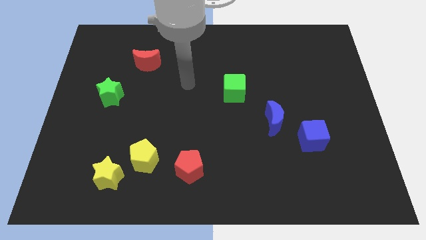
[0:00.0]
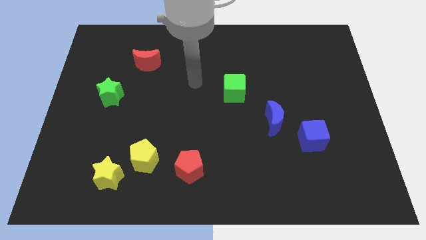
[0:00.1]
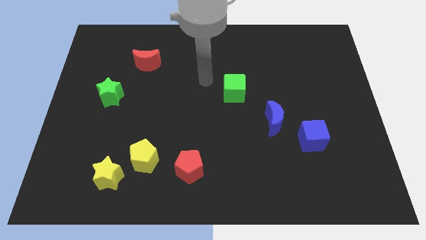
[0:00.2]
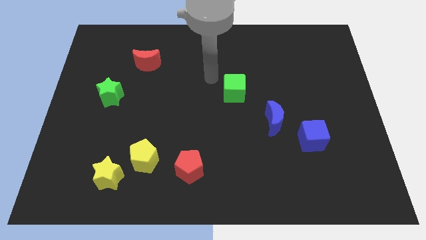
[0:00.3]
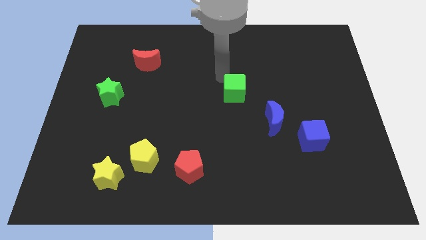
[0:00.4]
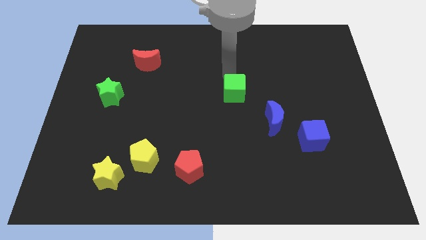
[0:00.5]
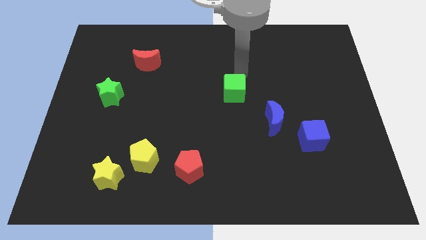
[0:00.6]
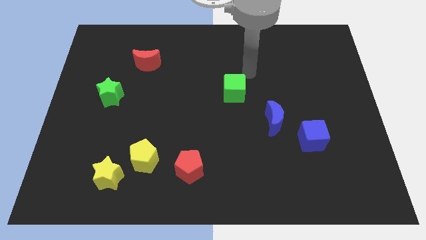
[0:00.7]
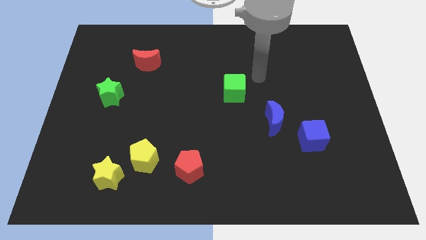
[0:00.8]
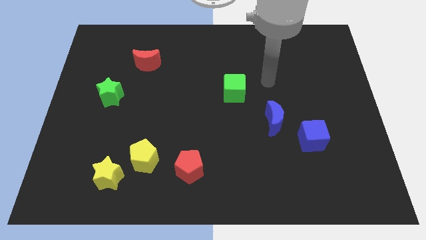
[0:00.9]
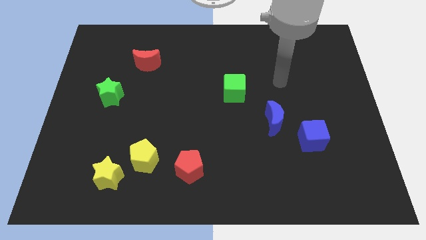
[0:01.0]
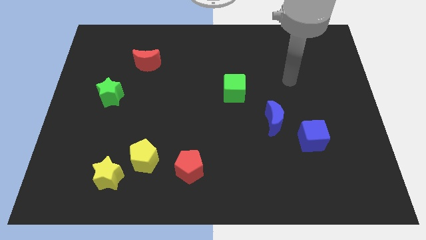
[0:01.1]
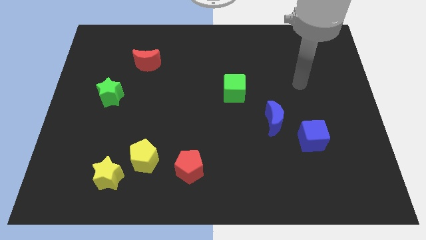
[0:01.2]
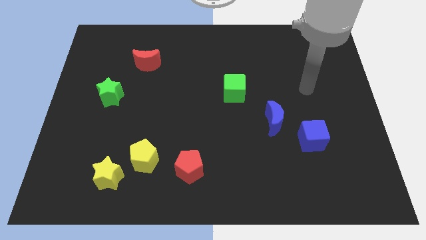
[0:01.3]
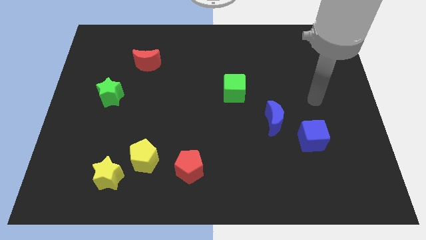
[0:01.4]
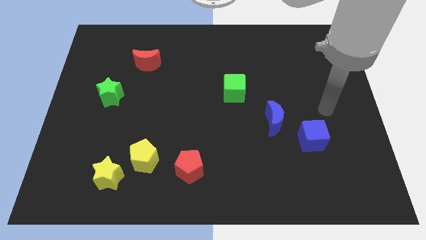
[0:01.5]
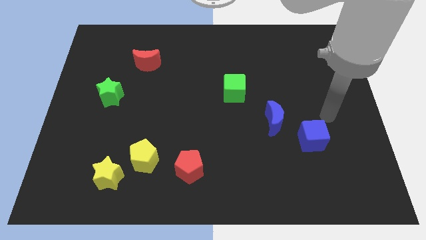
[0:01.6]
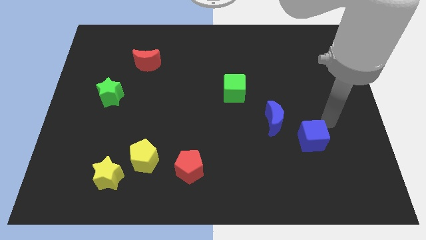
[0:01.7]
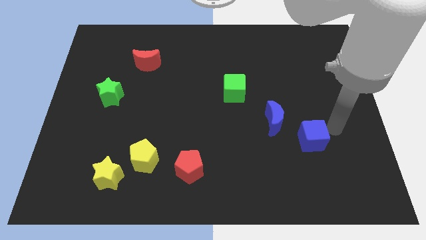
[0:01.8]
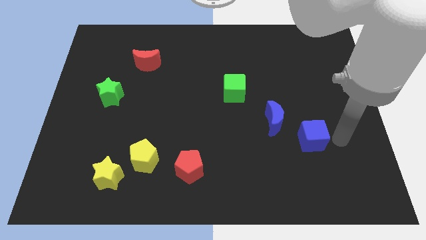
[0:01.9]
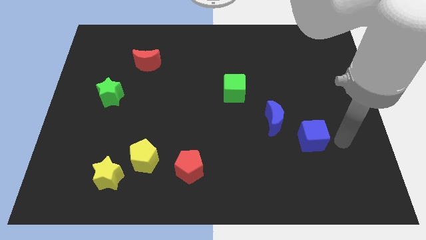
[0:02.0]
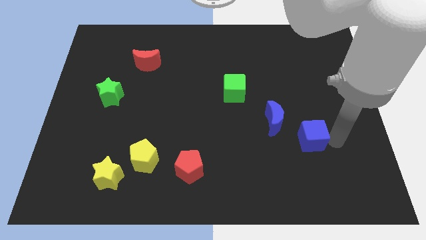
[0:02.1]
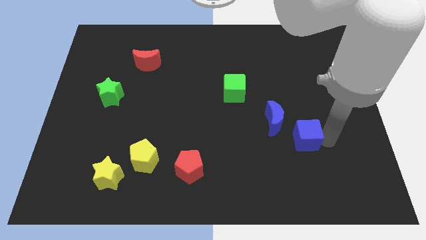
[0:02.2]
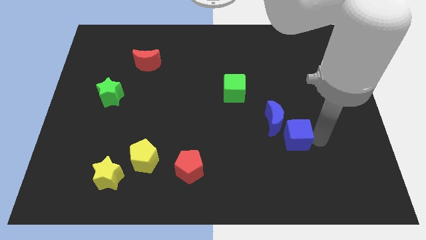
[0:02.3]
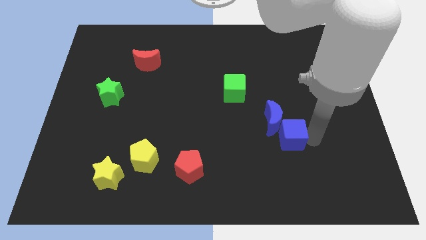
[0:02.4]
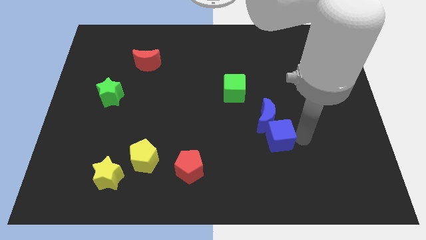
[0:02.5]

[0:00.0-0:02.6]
push the blue cube a little to the left

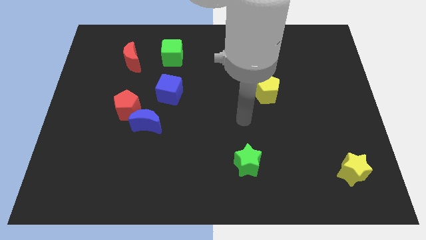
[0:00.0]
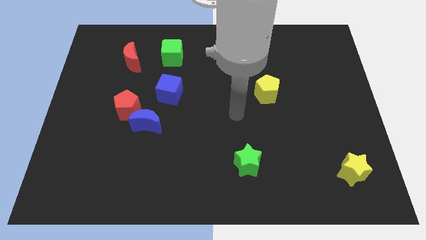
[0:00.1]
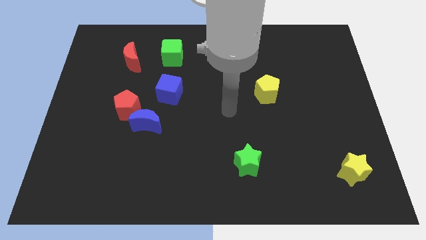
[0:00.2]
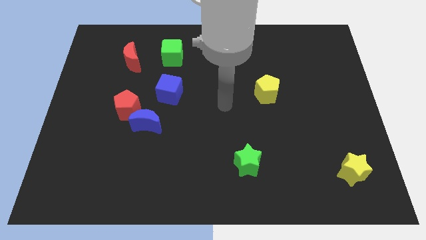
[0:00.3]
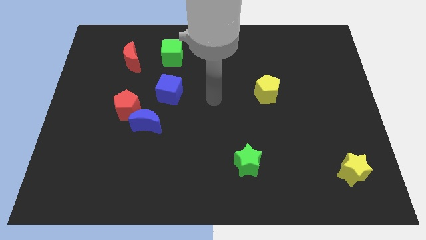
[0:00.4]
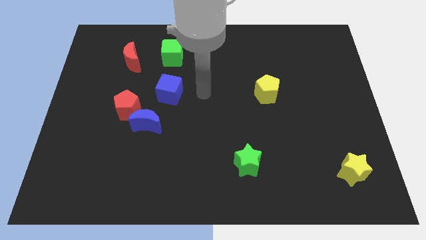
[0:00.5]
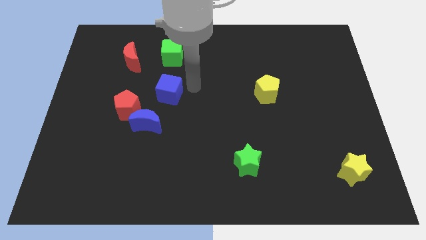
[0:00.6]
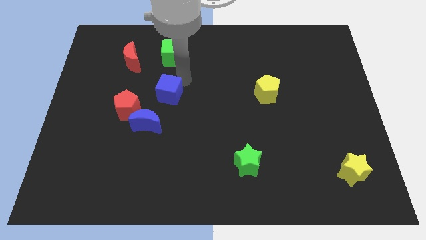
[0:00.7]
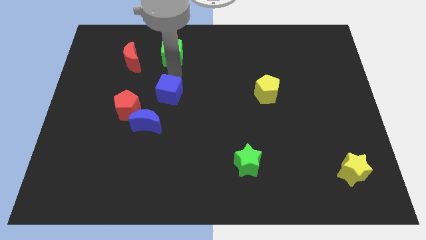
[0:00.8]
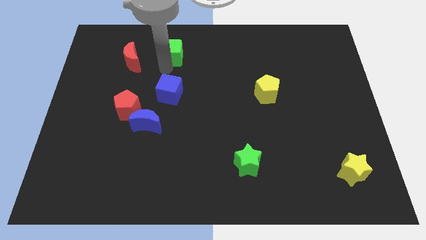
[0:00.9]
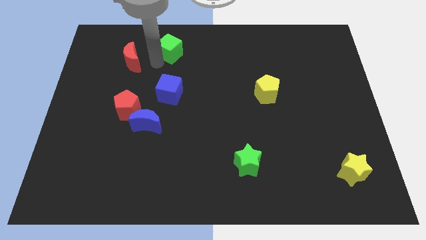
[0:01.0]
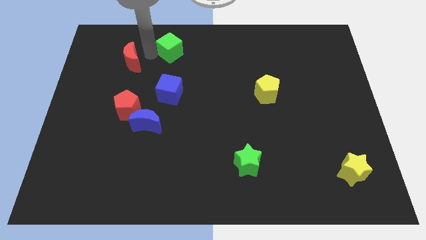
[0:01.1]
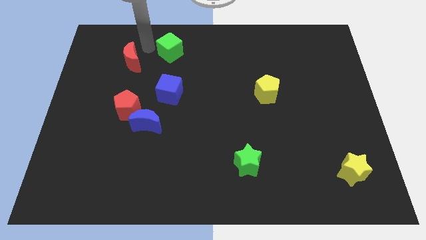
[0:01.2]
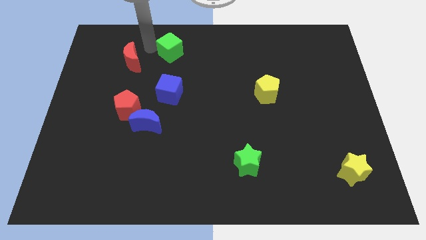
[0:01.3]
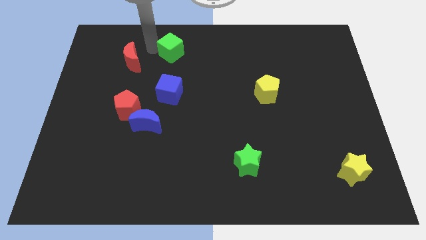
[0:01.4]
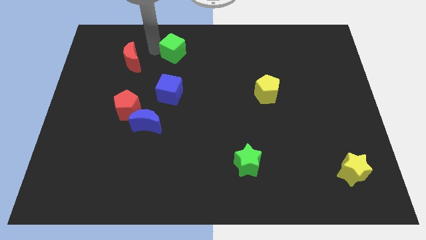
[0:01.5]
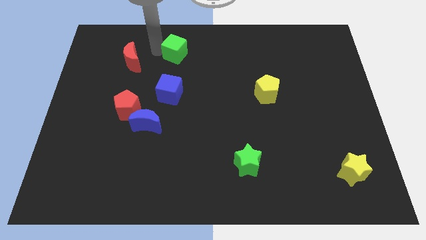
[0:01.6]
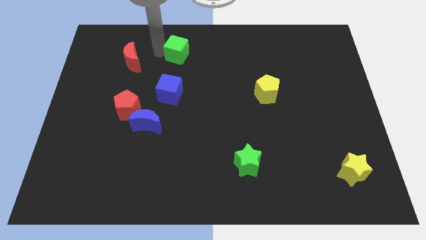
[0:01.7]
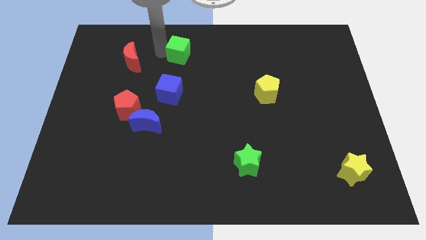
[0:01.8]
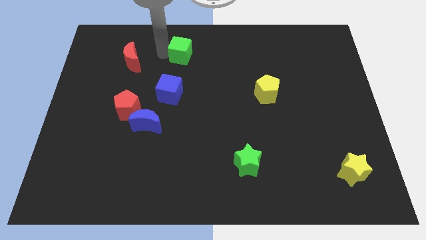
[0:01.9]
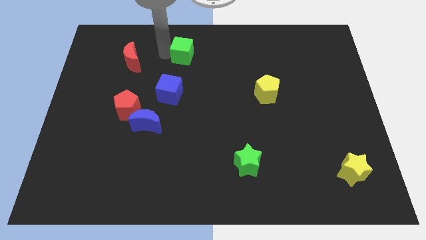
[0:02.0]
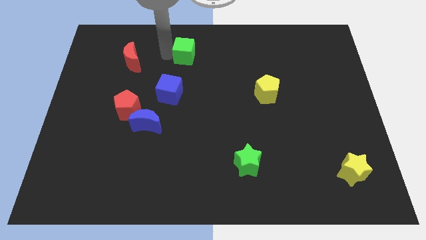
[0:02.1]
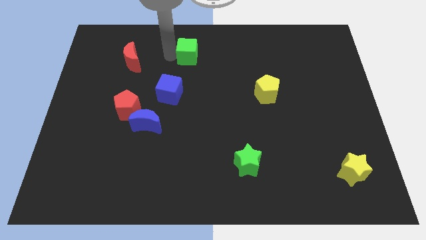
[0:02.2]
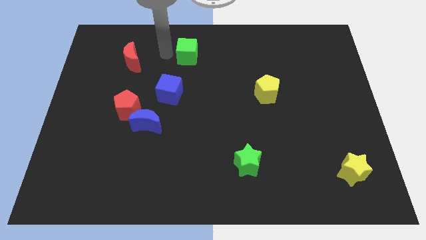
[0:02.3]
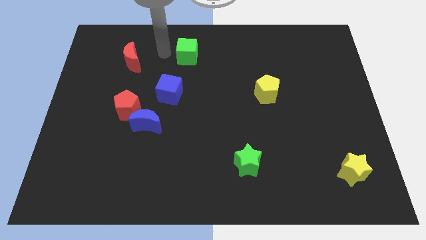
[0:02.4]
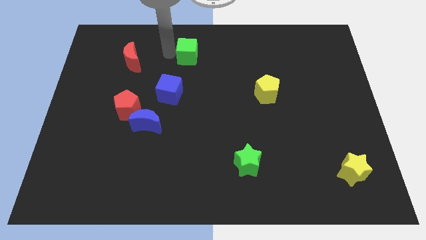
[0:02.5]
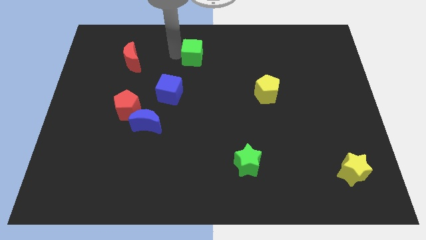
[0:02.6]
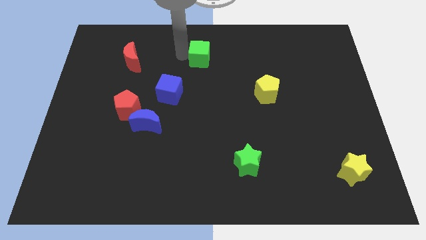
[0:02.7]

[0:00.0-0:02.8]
push the green cube somewhat right

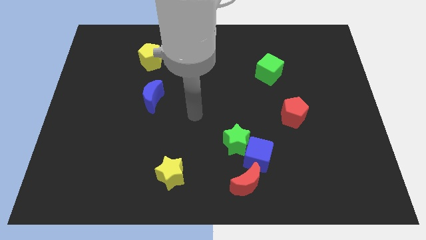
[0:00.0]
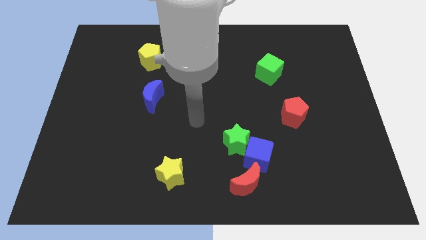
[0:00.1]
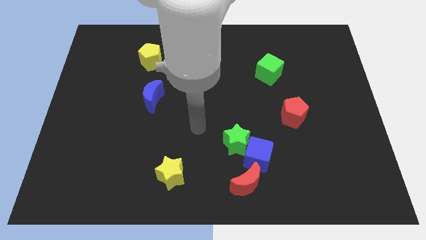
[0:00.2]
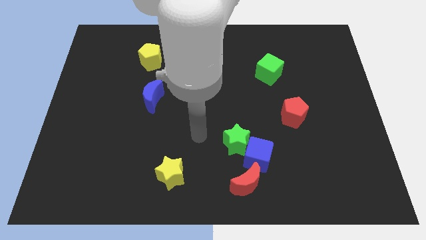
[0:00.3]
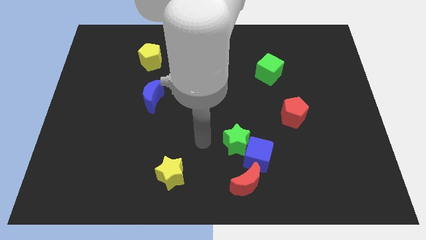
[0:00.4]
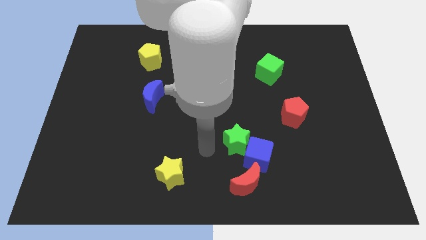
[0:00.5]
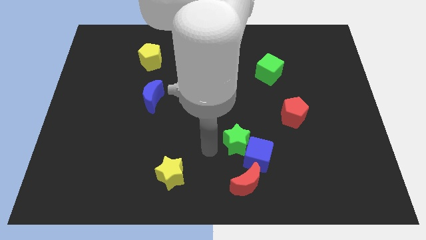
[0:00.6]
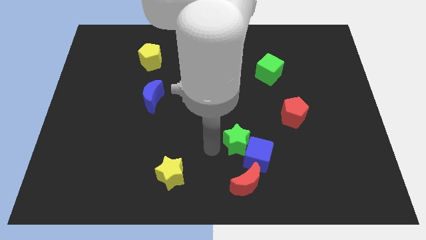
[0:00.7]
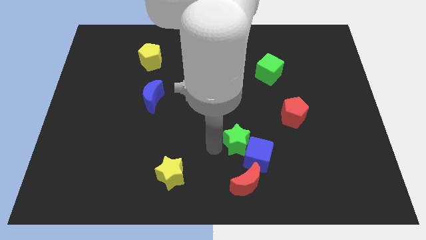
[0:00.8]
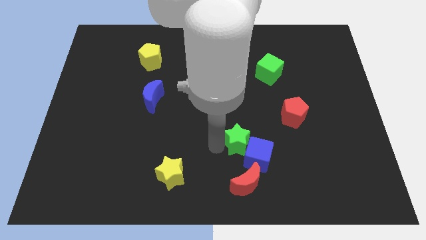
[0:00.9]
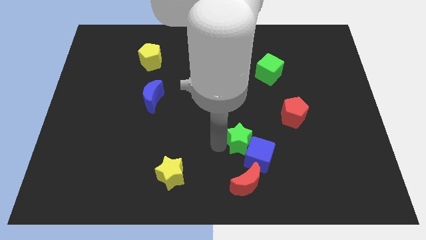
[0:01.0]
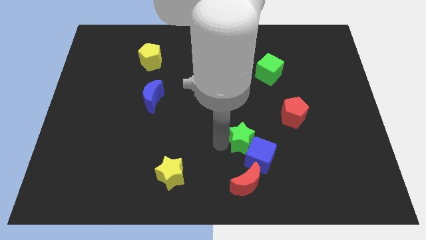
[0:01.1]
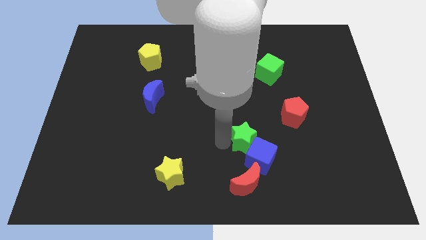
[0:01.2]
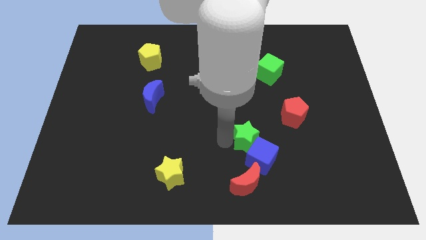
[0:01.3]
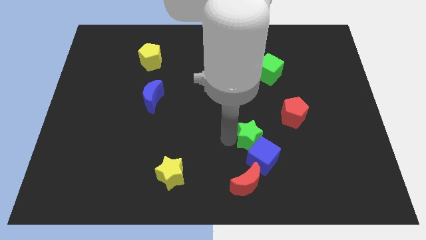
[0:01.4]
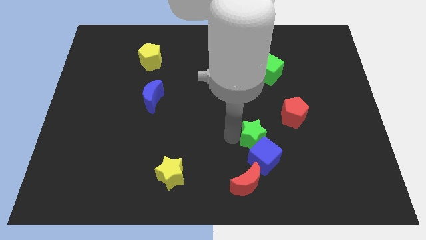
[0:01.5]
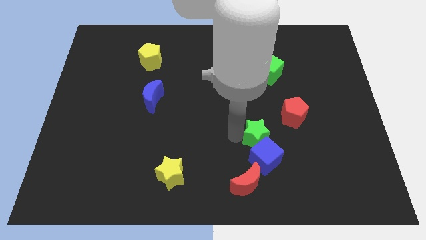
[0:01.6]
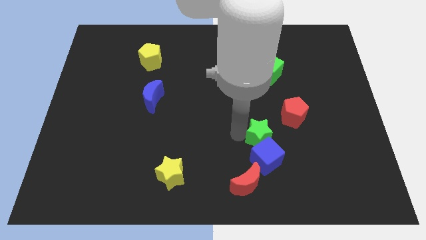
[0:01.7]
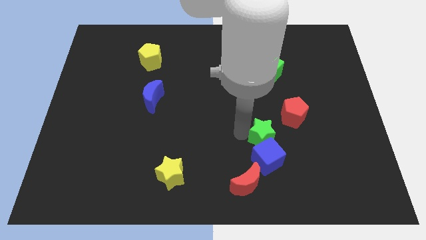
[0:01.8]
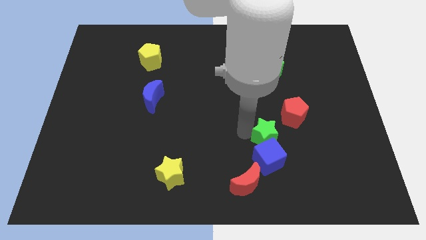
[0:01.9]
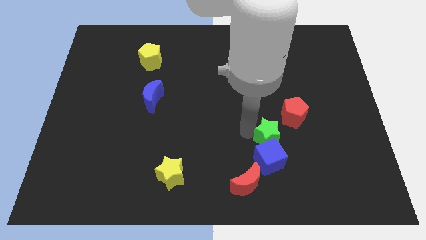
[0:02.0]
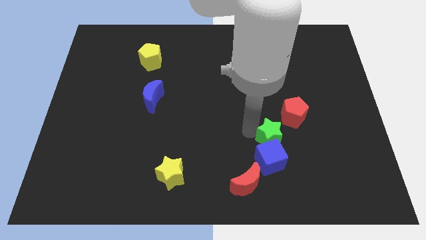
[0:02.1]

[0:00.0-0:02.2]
push the green star right a bit

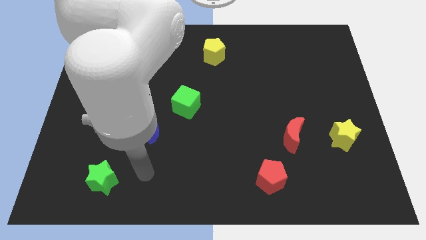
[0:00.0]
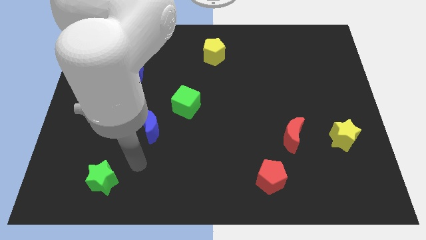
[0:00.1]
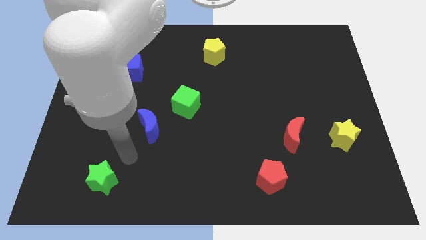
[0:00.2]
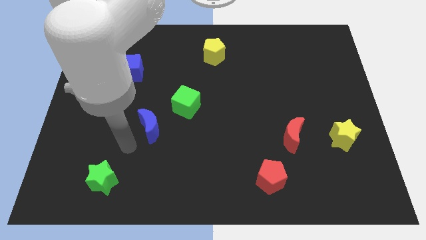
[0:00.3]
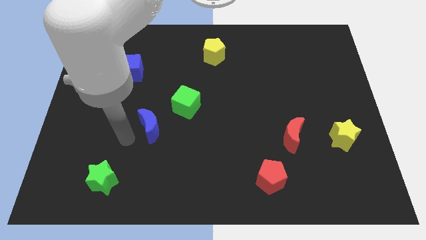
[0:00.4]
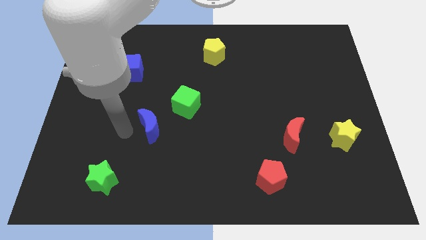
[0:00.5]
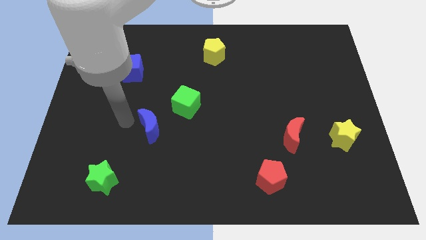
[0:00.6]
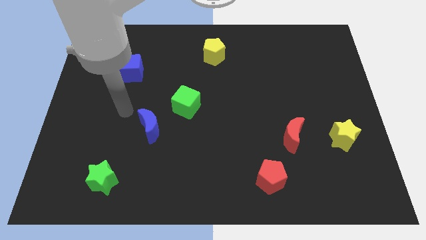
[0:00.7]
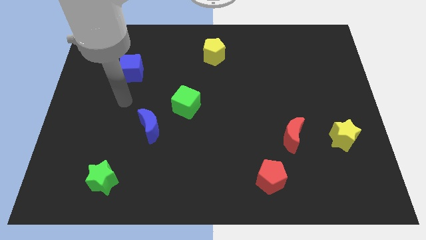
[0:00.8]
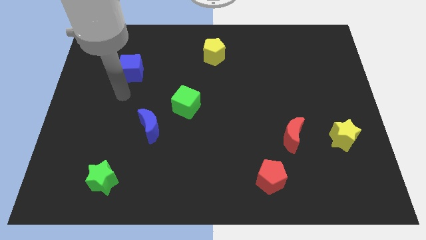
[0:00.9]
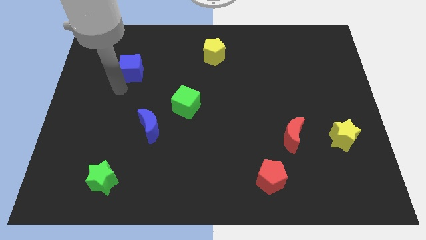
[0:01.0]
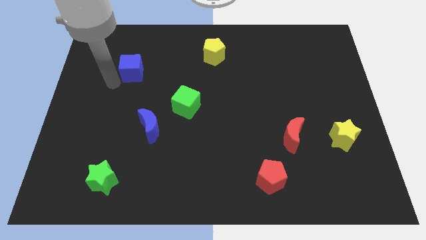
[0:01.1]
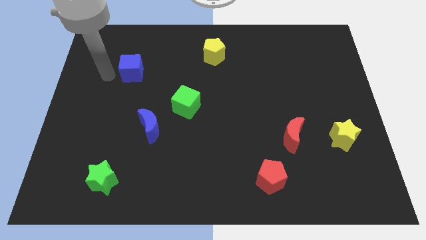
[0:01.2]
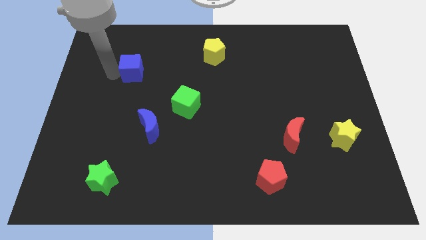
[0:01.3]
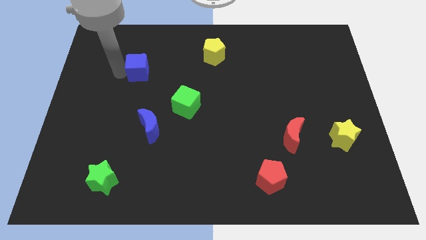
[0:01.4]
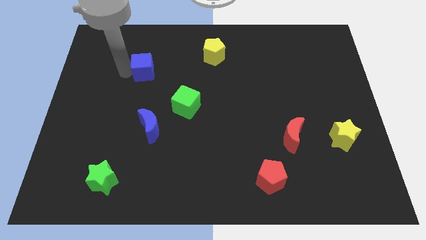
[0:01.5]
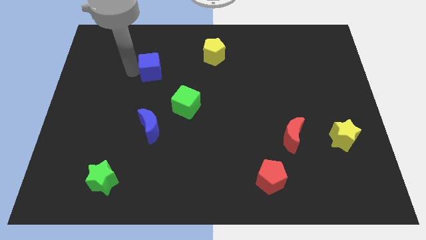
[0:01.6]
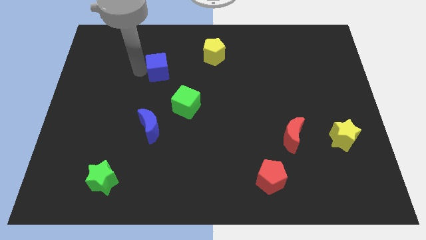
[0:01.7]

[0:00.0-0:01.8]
move the blue cube a bit right
